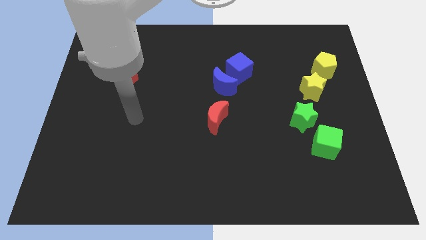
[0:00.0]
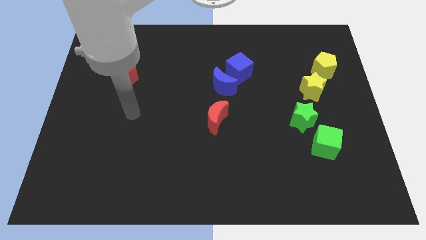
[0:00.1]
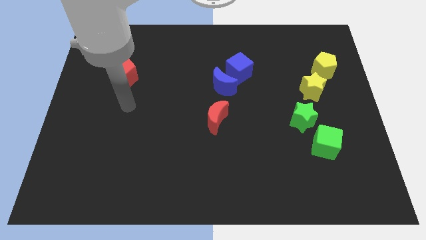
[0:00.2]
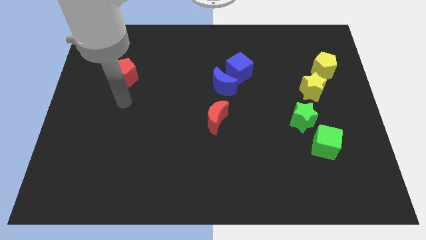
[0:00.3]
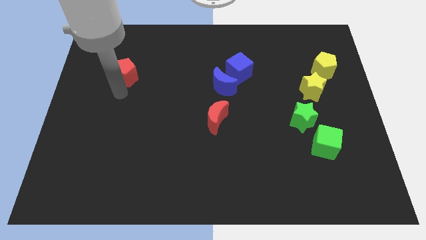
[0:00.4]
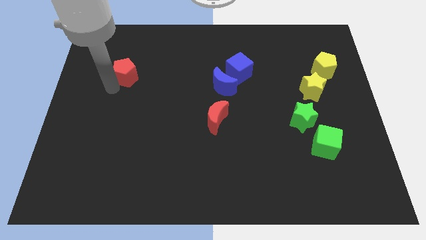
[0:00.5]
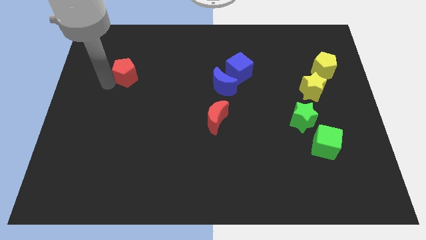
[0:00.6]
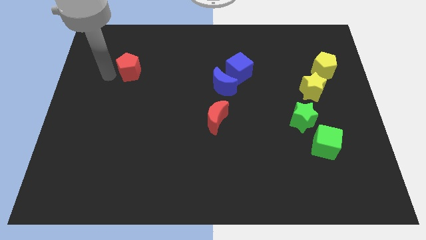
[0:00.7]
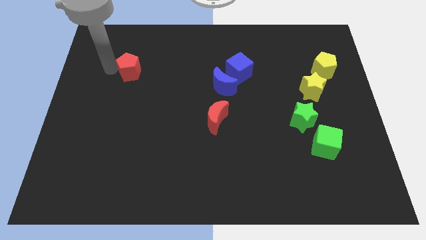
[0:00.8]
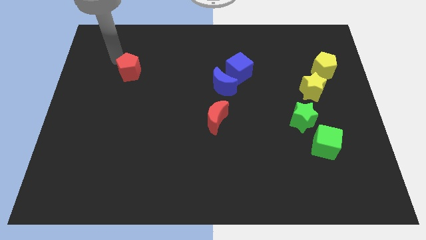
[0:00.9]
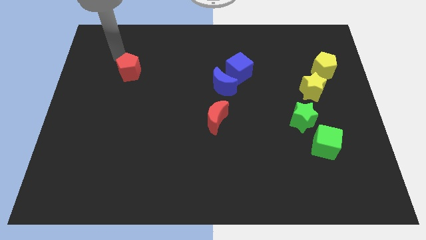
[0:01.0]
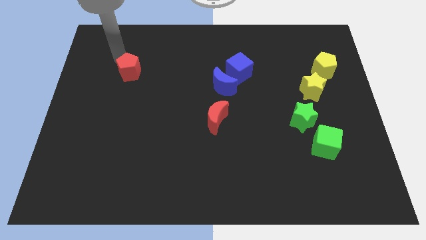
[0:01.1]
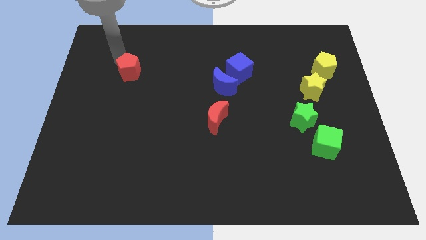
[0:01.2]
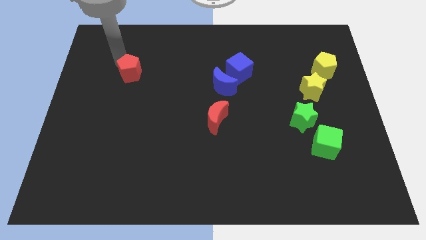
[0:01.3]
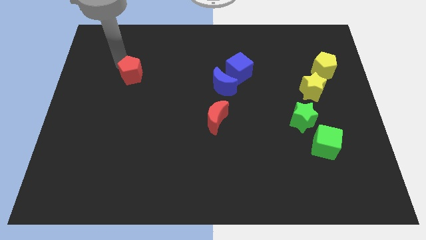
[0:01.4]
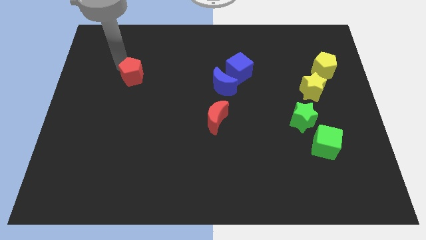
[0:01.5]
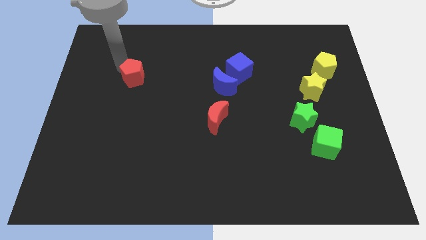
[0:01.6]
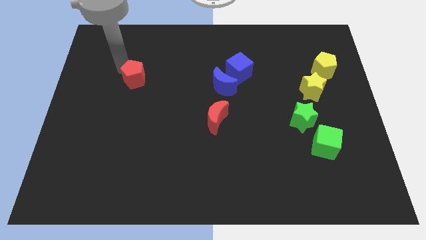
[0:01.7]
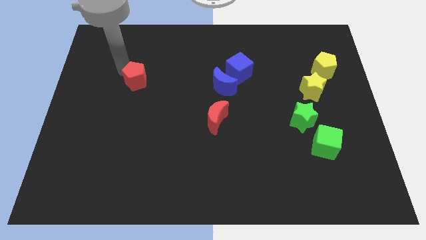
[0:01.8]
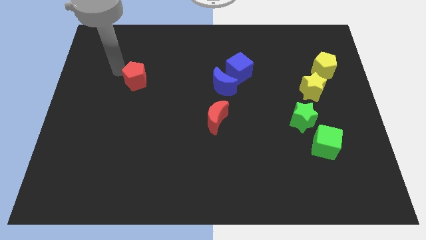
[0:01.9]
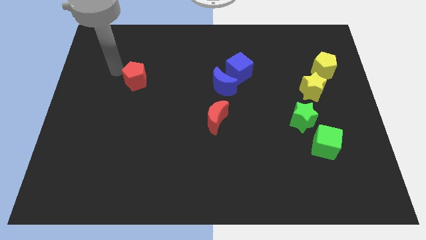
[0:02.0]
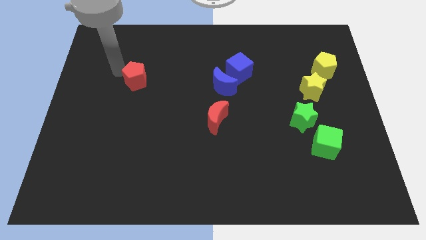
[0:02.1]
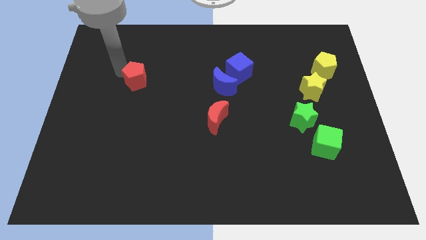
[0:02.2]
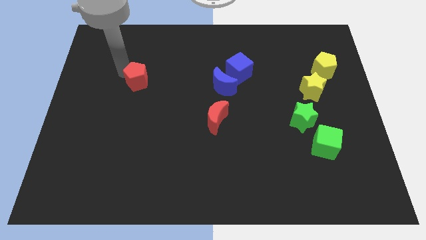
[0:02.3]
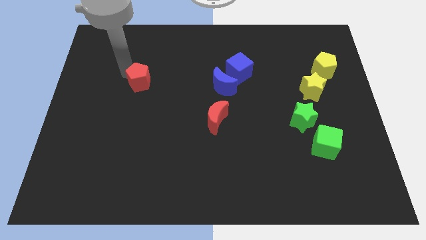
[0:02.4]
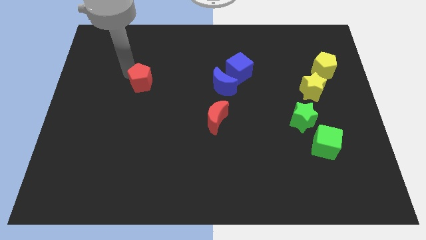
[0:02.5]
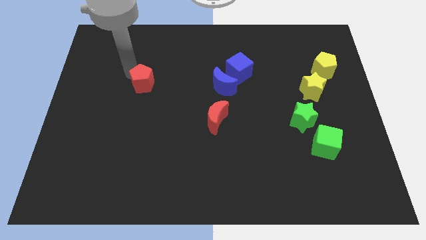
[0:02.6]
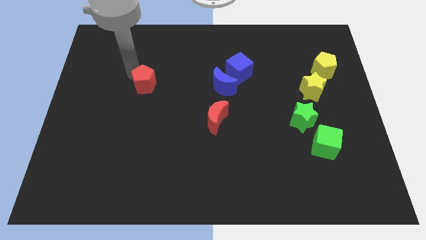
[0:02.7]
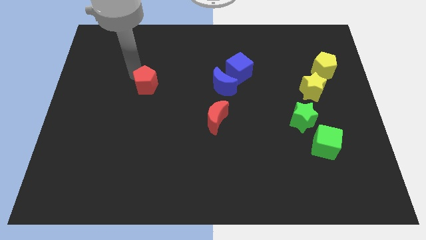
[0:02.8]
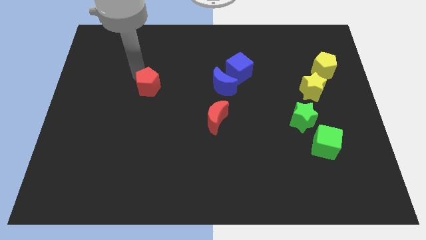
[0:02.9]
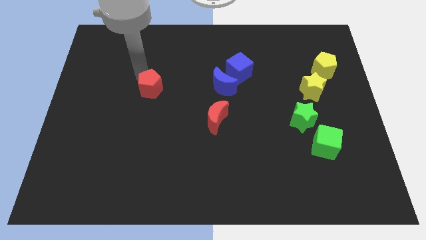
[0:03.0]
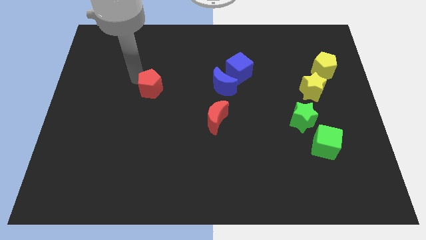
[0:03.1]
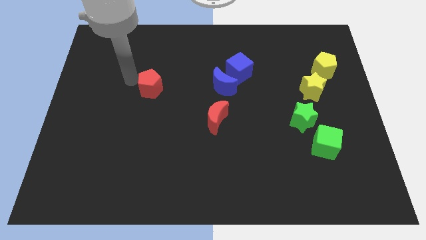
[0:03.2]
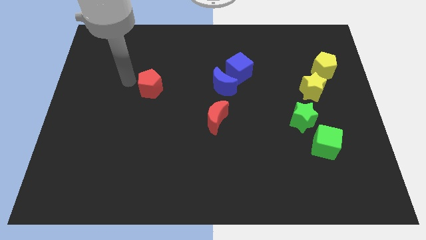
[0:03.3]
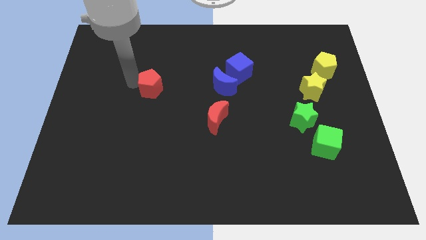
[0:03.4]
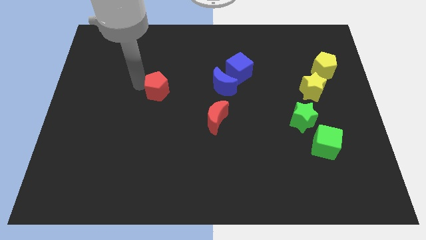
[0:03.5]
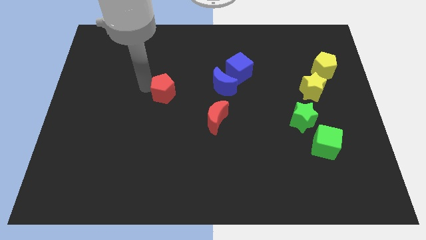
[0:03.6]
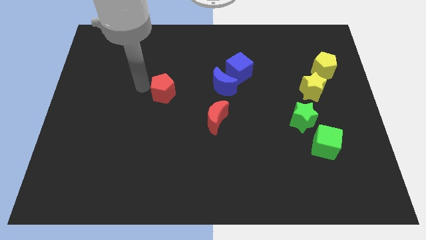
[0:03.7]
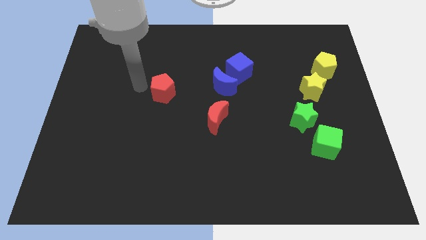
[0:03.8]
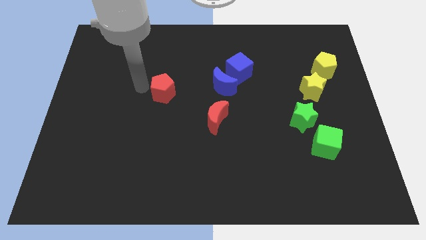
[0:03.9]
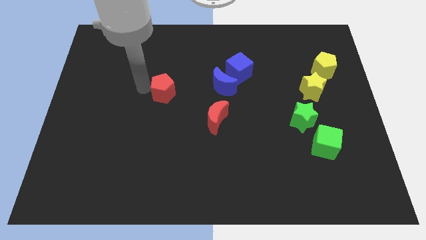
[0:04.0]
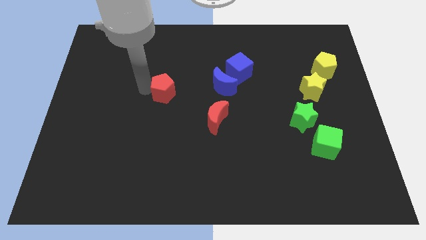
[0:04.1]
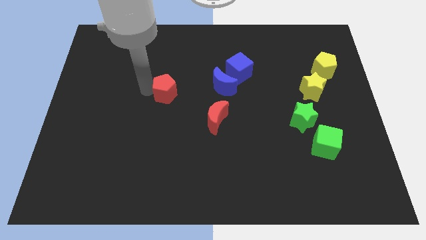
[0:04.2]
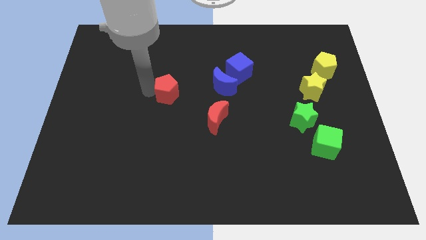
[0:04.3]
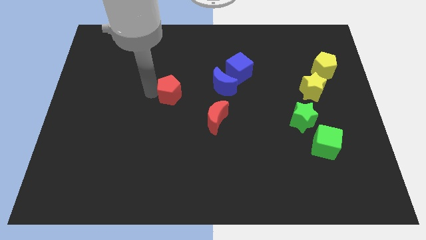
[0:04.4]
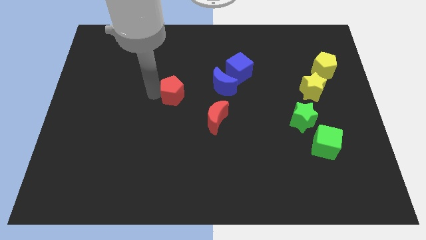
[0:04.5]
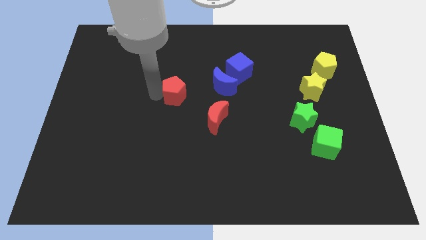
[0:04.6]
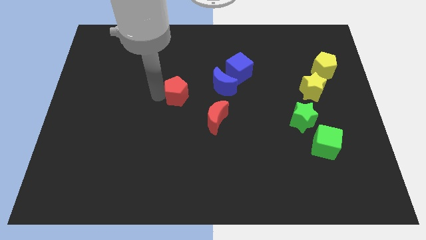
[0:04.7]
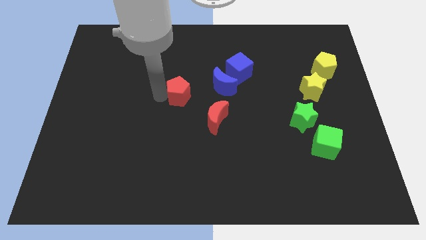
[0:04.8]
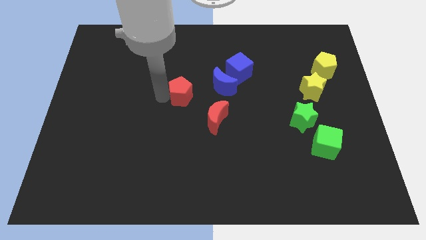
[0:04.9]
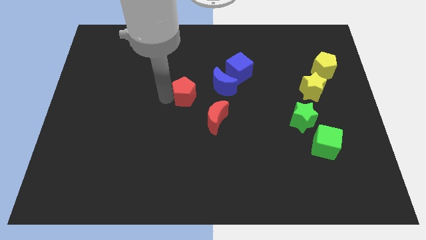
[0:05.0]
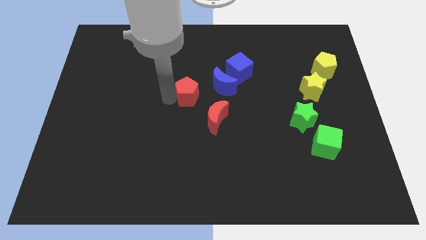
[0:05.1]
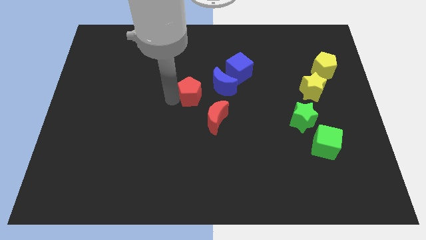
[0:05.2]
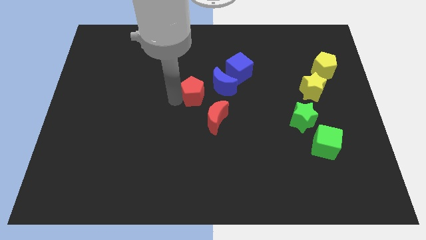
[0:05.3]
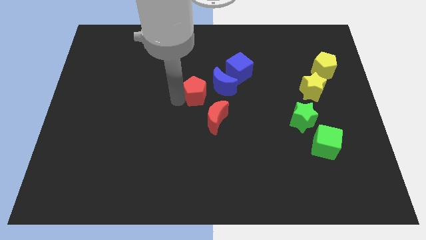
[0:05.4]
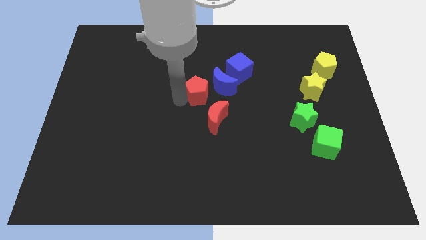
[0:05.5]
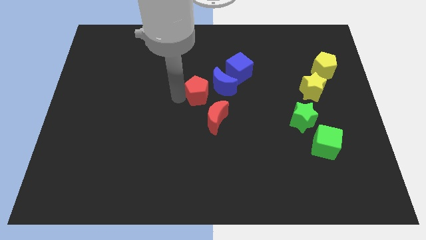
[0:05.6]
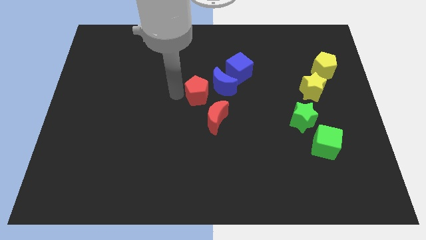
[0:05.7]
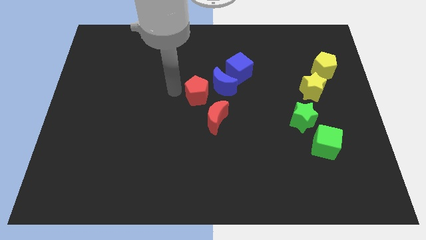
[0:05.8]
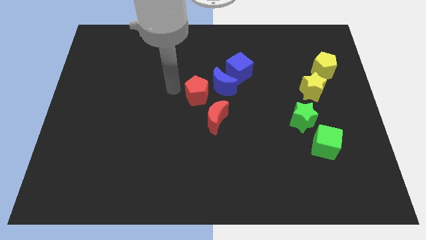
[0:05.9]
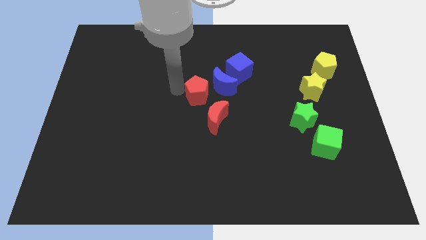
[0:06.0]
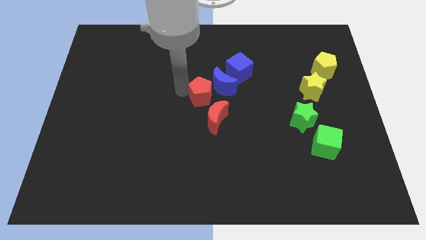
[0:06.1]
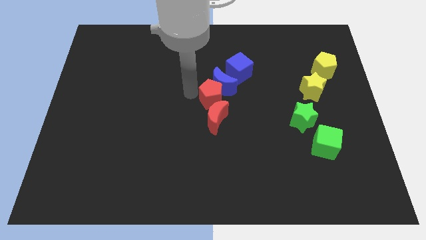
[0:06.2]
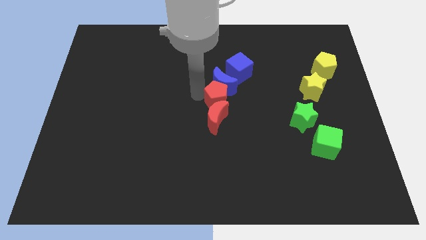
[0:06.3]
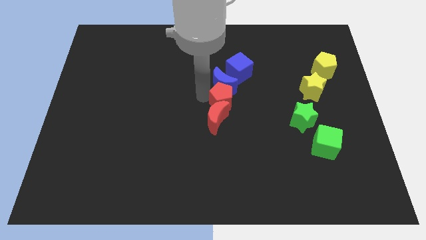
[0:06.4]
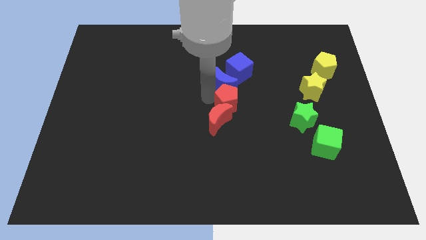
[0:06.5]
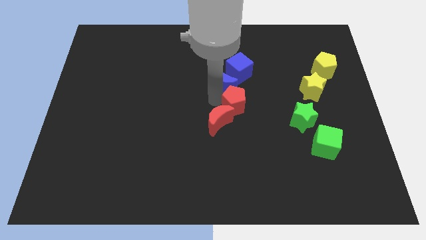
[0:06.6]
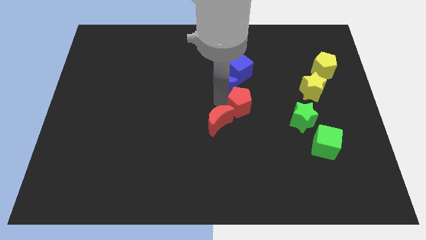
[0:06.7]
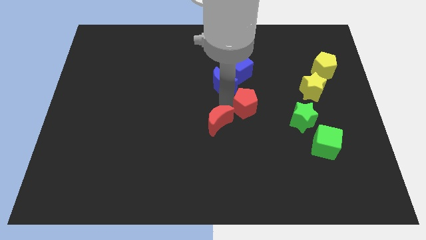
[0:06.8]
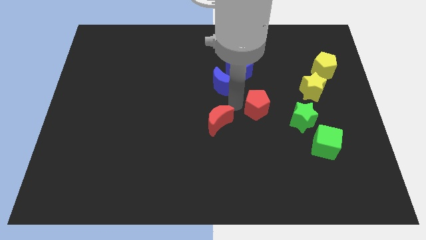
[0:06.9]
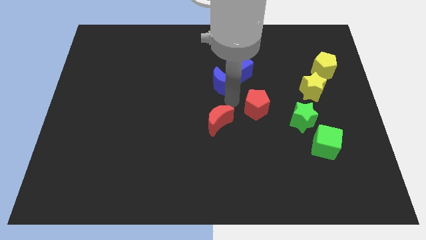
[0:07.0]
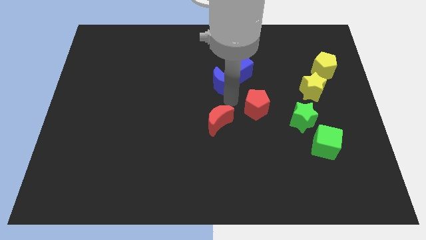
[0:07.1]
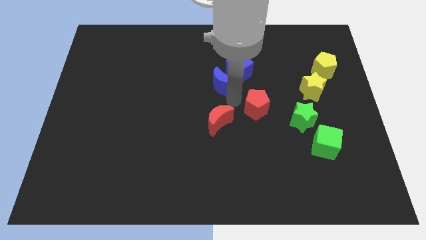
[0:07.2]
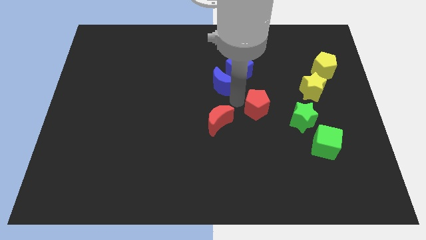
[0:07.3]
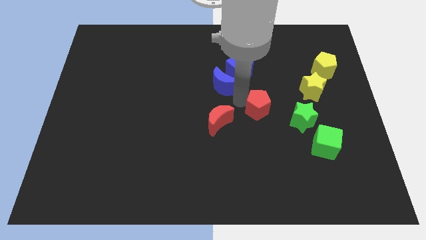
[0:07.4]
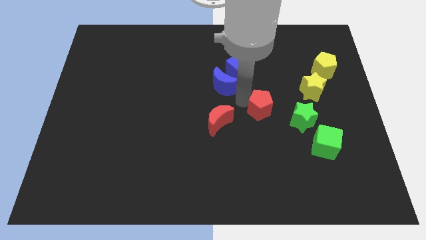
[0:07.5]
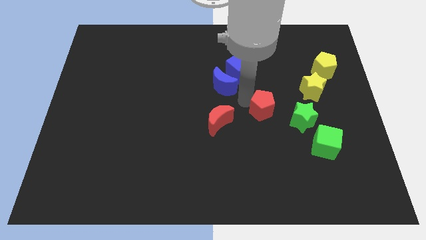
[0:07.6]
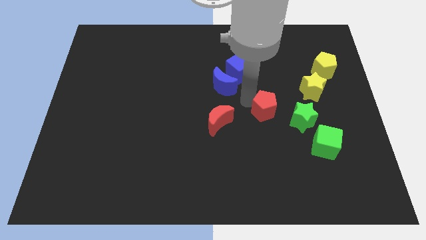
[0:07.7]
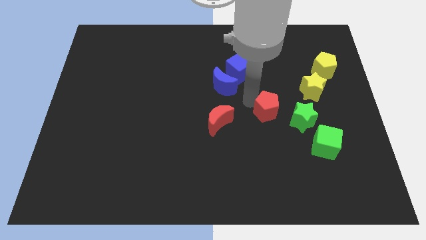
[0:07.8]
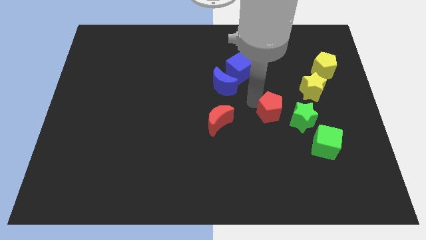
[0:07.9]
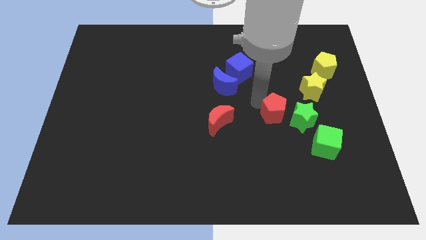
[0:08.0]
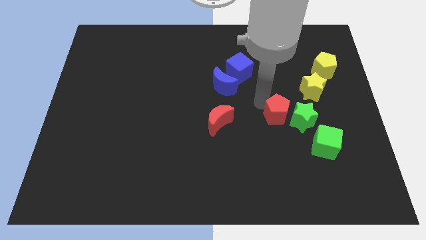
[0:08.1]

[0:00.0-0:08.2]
push the red pentagon to the green star
